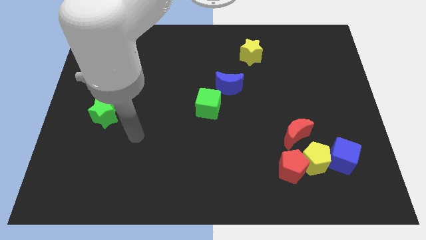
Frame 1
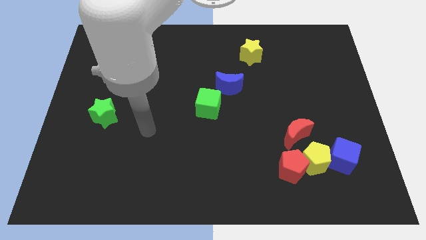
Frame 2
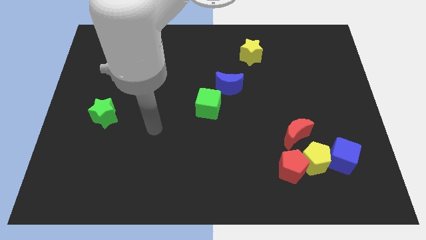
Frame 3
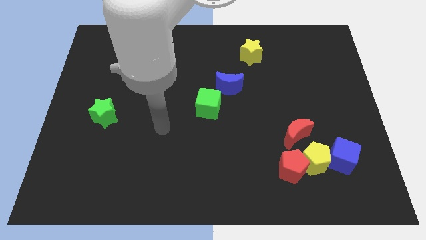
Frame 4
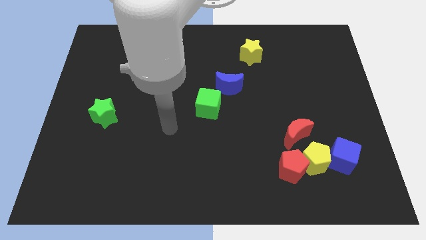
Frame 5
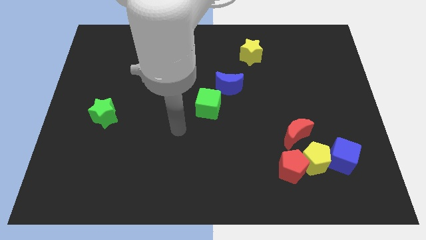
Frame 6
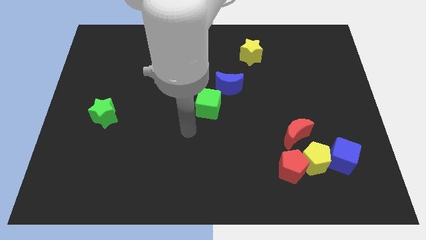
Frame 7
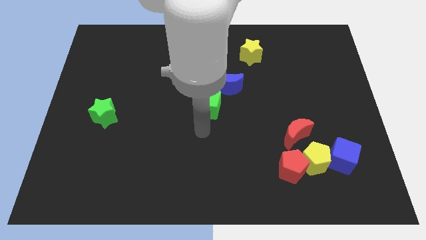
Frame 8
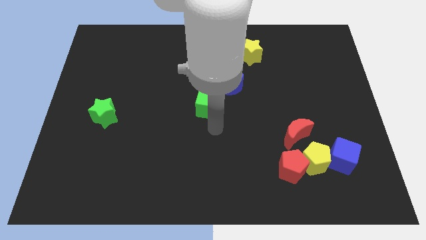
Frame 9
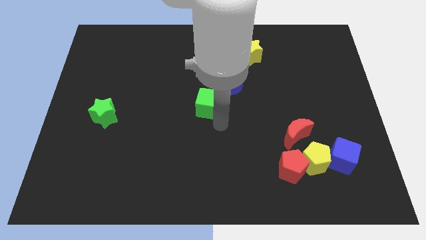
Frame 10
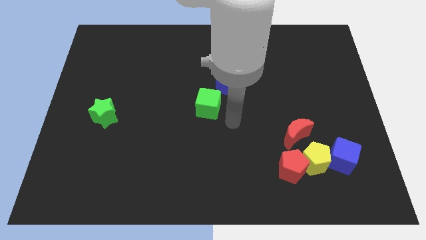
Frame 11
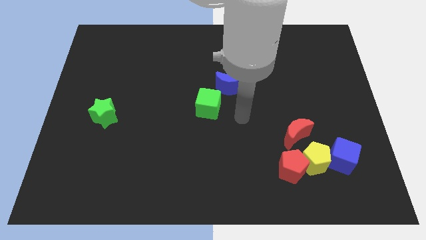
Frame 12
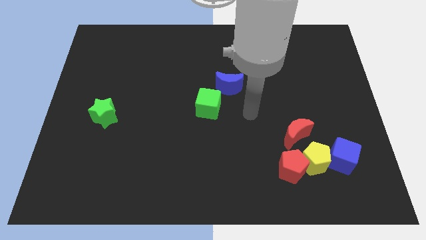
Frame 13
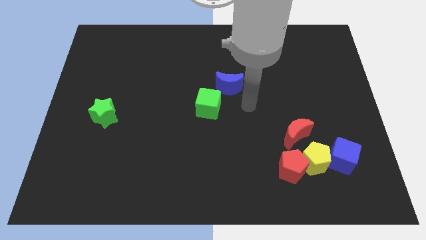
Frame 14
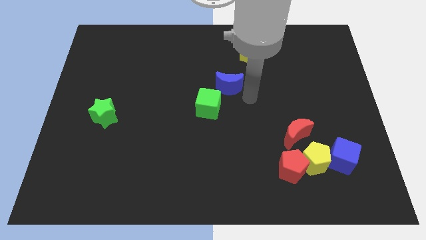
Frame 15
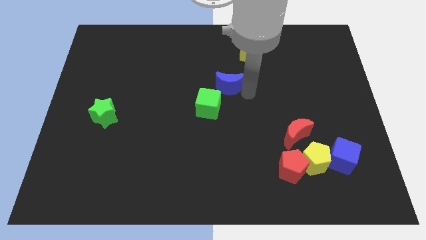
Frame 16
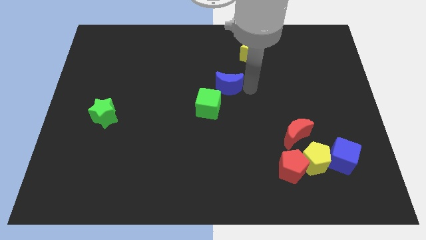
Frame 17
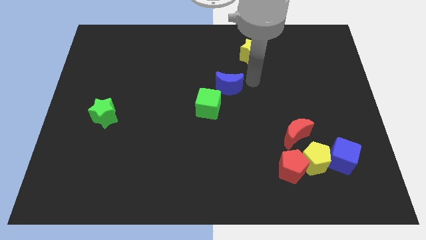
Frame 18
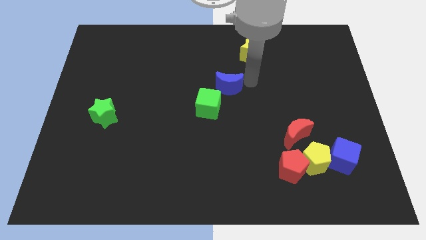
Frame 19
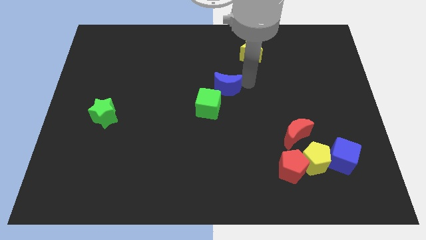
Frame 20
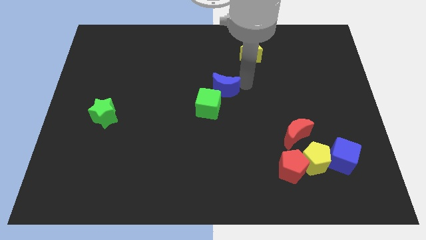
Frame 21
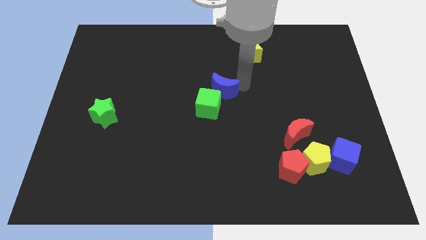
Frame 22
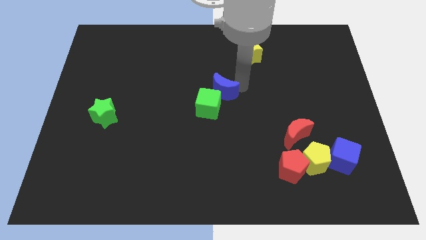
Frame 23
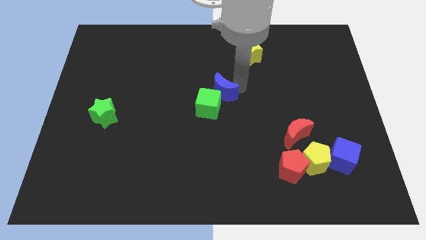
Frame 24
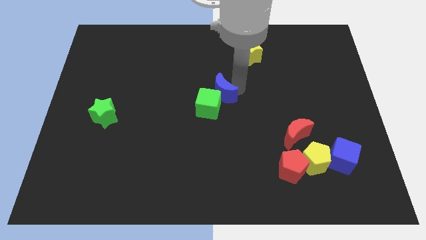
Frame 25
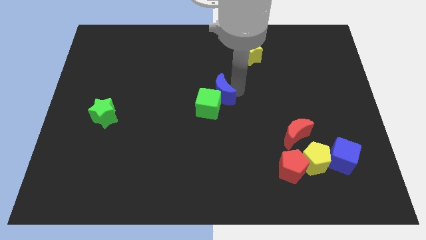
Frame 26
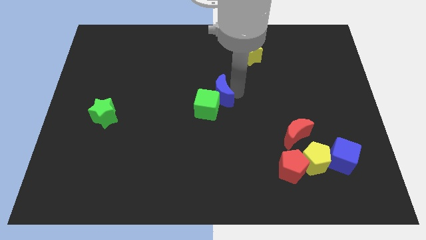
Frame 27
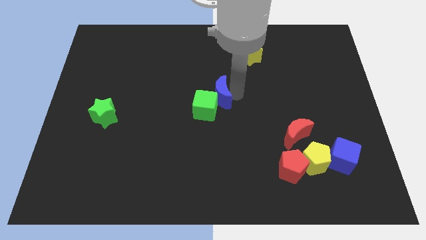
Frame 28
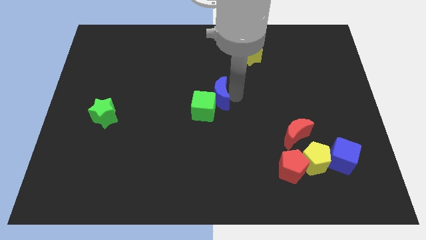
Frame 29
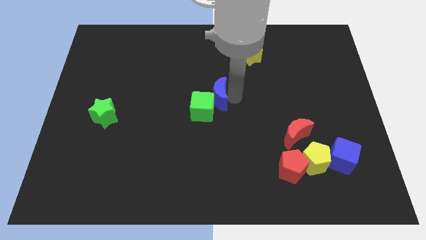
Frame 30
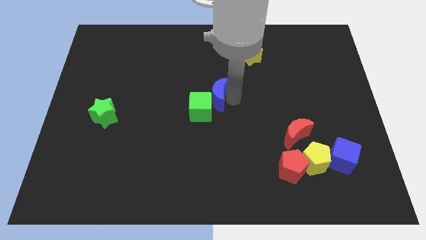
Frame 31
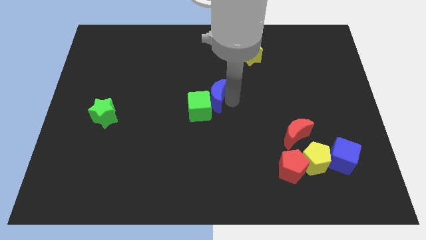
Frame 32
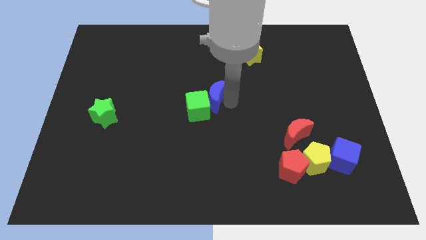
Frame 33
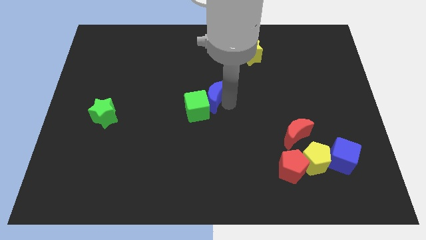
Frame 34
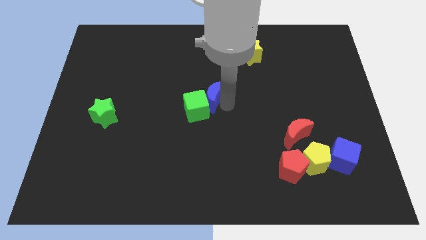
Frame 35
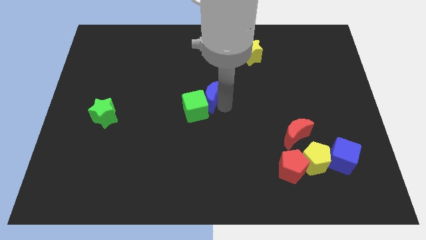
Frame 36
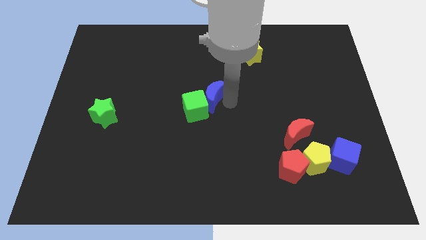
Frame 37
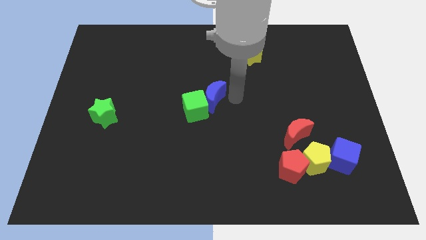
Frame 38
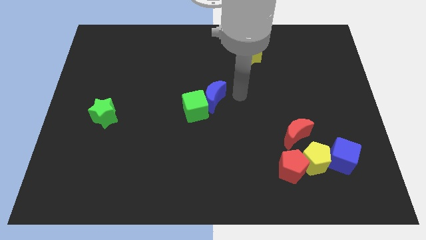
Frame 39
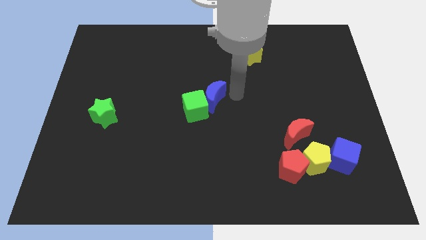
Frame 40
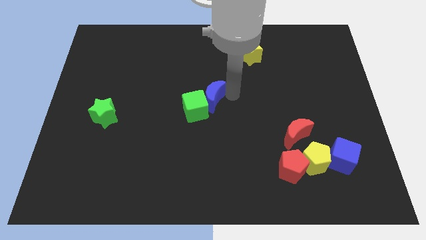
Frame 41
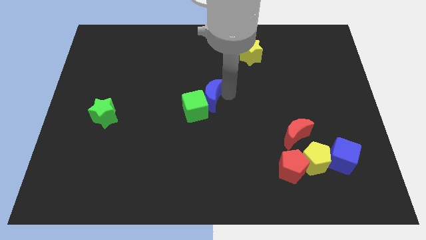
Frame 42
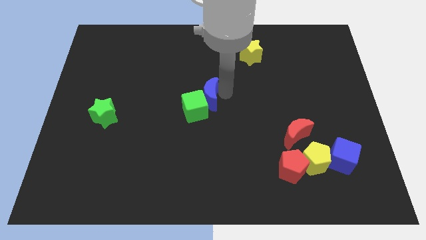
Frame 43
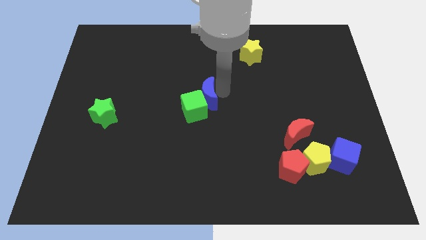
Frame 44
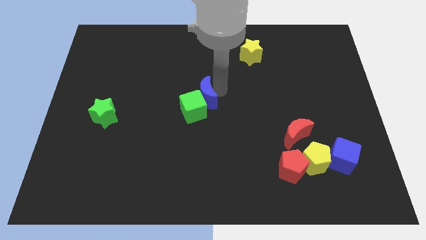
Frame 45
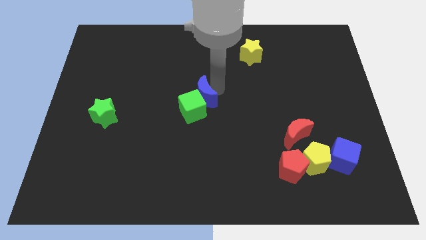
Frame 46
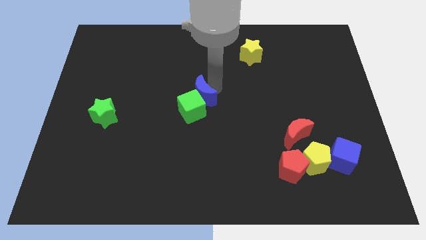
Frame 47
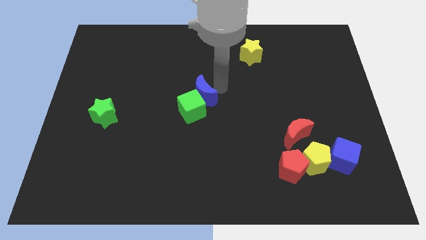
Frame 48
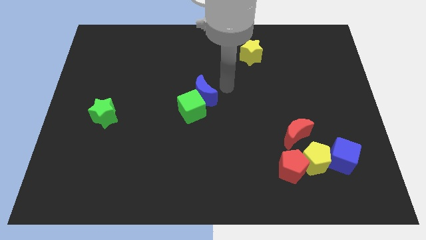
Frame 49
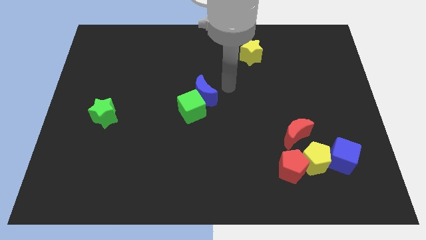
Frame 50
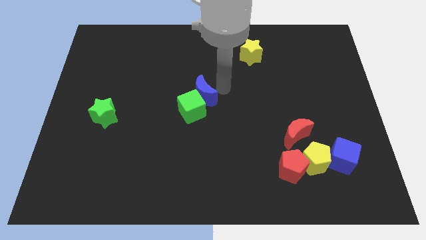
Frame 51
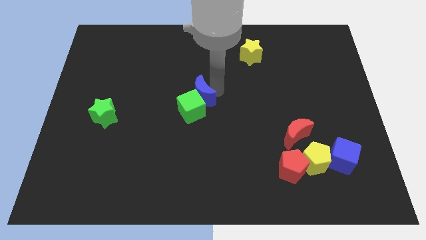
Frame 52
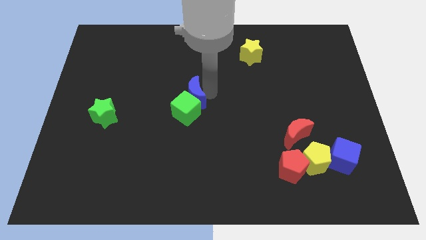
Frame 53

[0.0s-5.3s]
slightly move the blue moon diagonally downwards and to the left

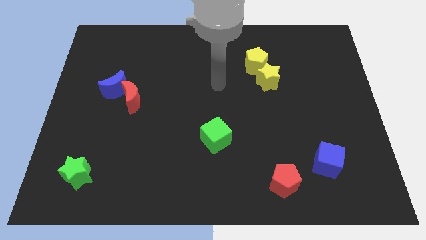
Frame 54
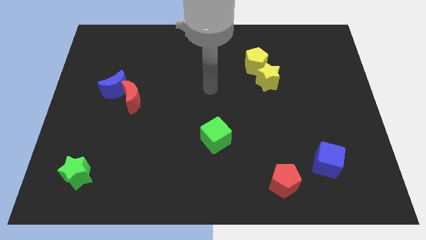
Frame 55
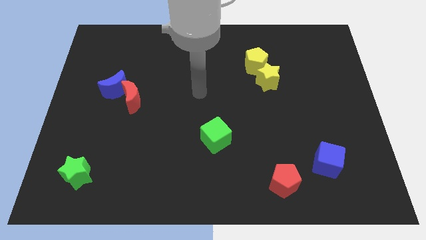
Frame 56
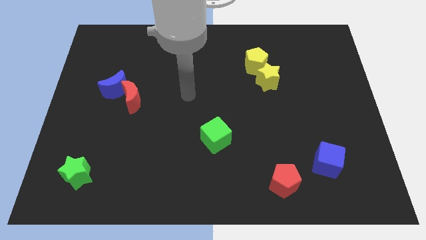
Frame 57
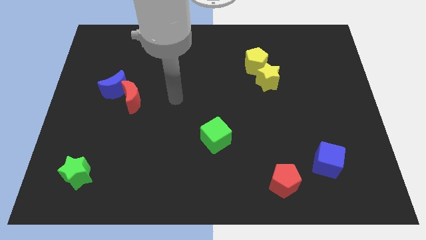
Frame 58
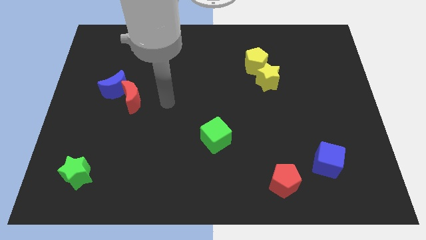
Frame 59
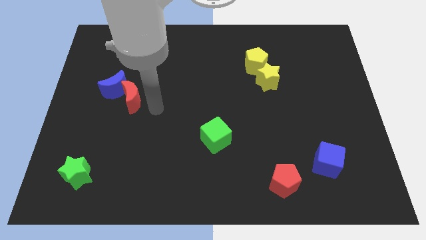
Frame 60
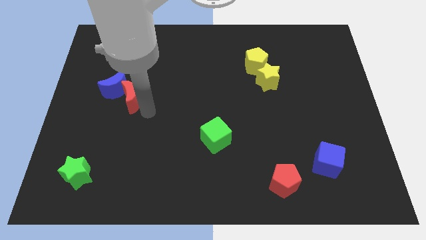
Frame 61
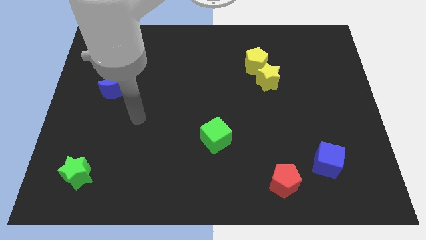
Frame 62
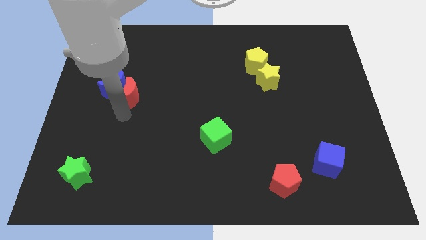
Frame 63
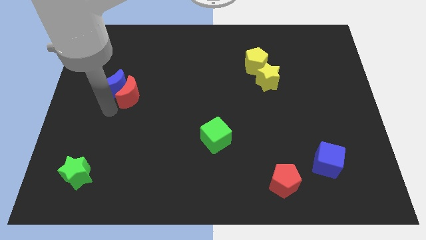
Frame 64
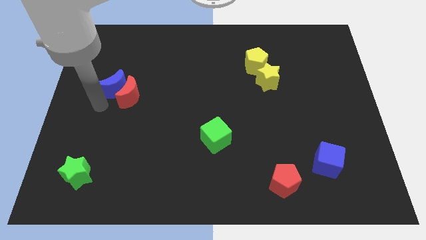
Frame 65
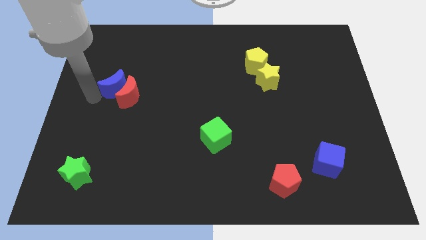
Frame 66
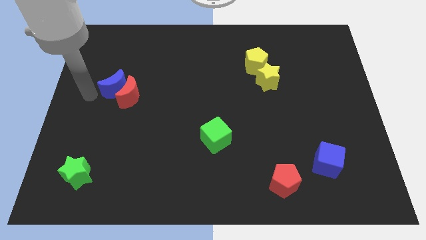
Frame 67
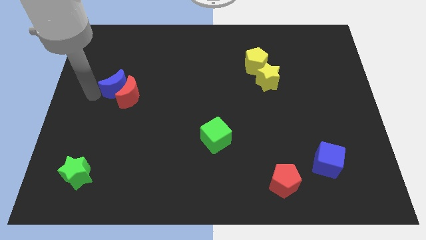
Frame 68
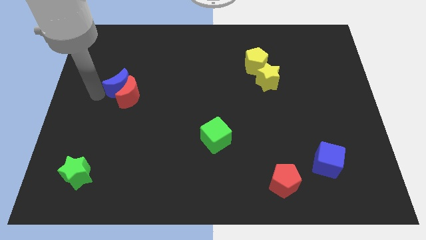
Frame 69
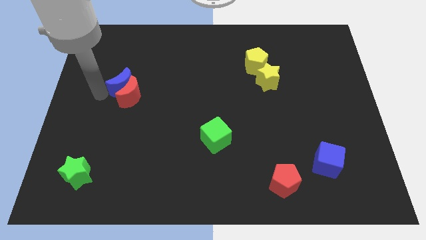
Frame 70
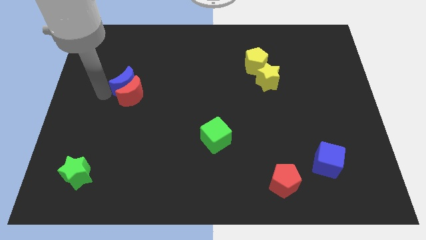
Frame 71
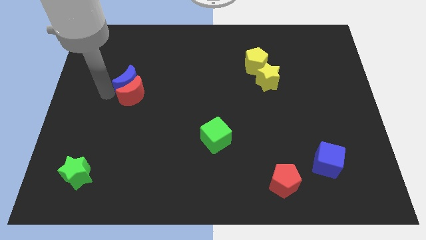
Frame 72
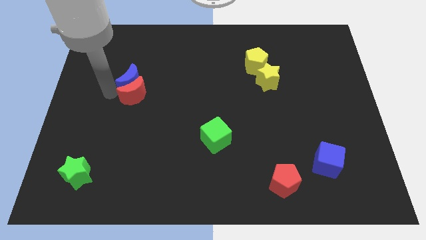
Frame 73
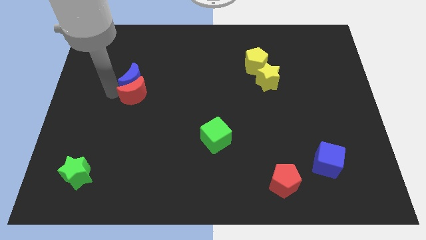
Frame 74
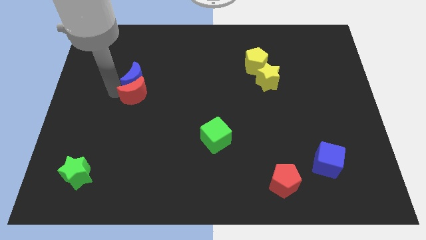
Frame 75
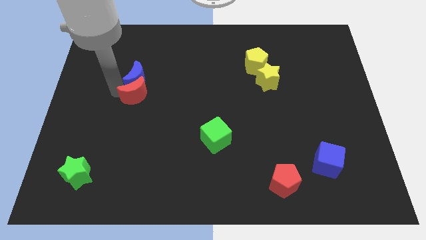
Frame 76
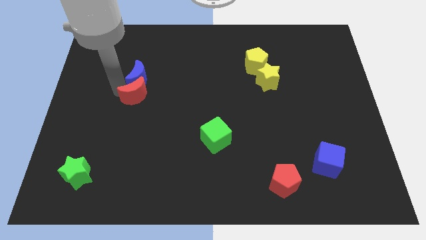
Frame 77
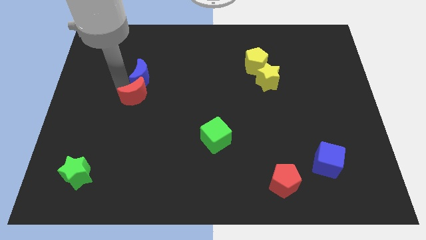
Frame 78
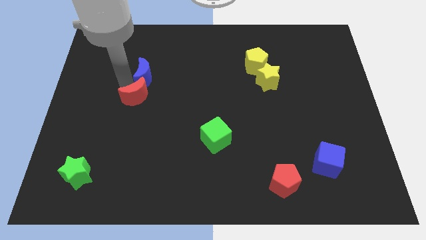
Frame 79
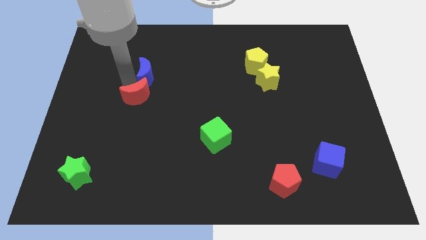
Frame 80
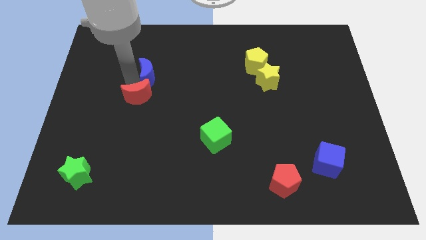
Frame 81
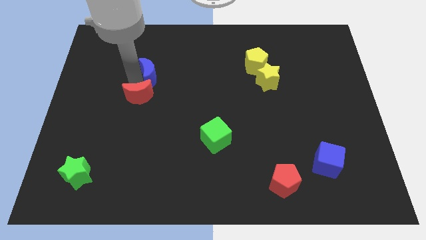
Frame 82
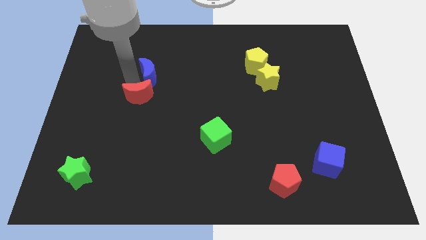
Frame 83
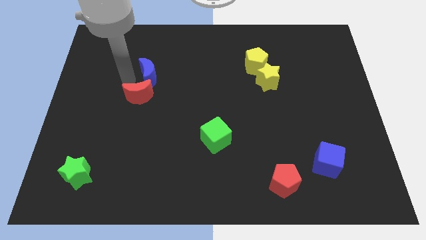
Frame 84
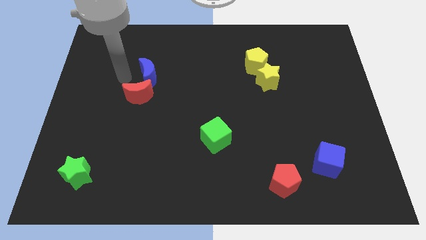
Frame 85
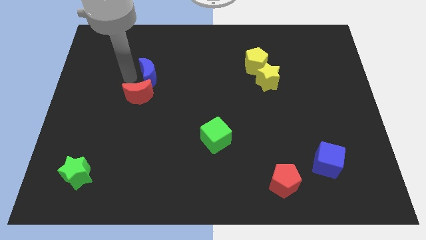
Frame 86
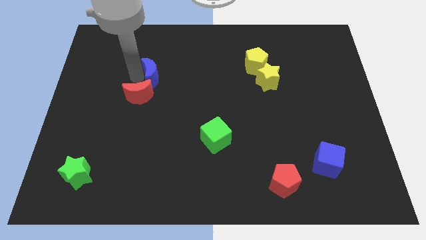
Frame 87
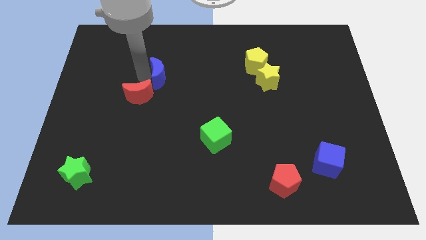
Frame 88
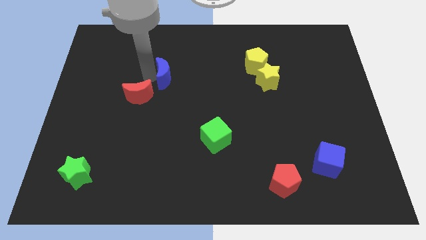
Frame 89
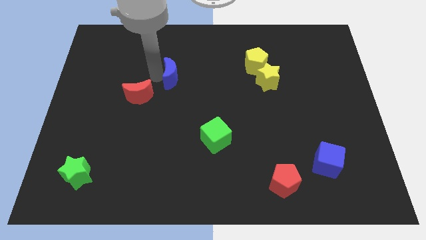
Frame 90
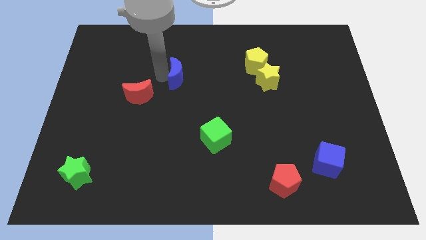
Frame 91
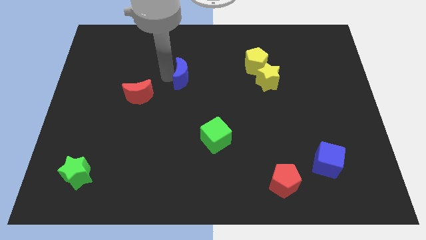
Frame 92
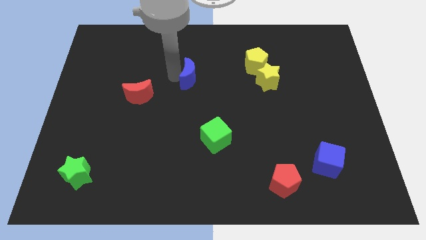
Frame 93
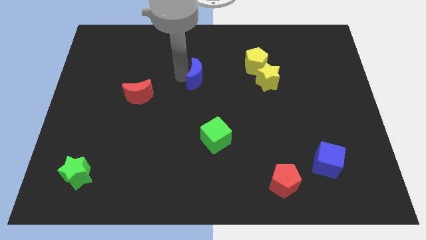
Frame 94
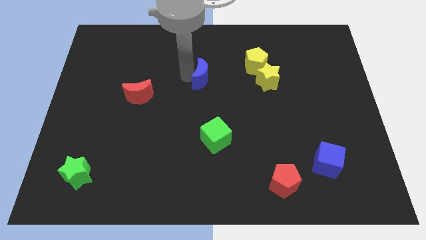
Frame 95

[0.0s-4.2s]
move the blue moon right
